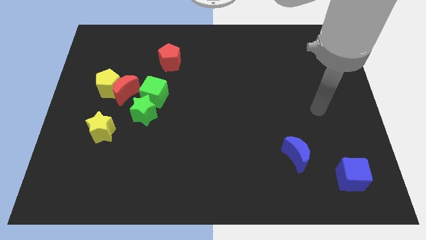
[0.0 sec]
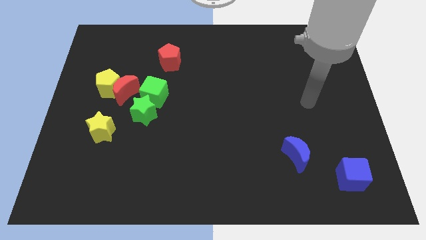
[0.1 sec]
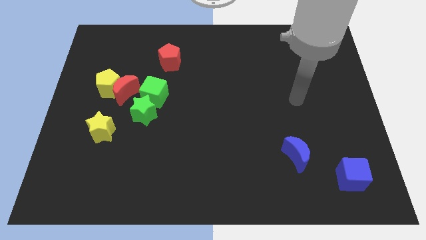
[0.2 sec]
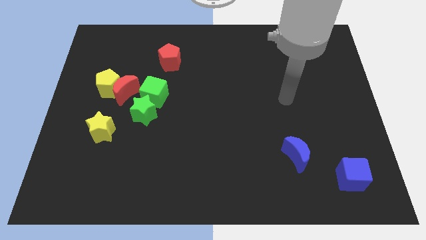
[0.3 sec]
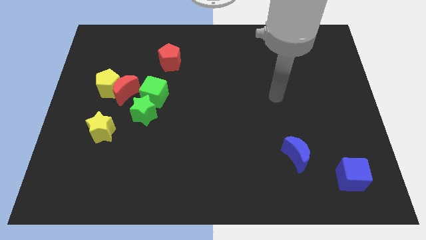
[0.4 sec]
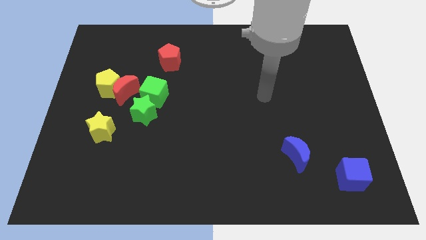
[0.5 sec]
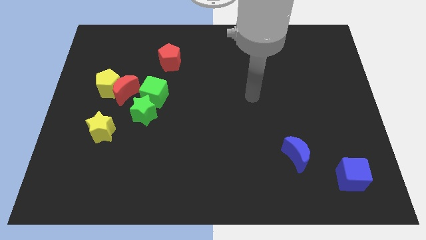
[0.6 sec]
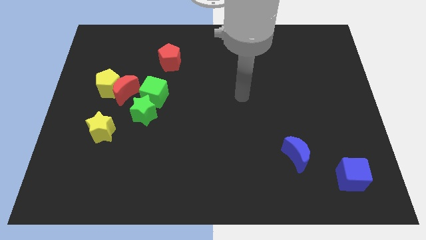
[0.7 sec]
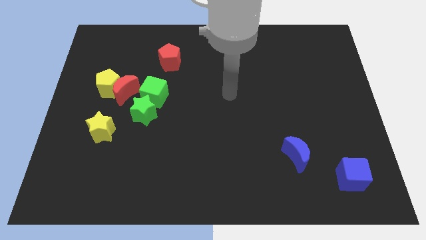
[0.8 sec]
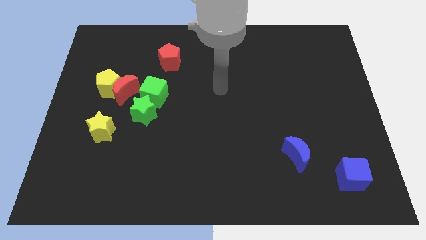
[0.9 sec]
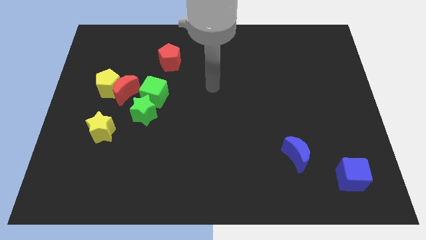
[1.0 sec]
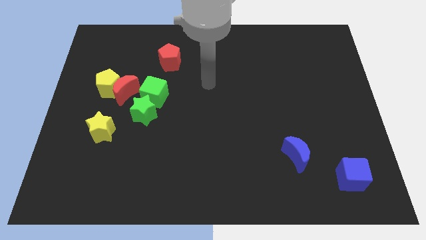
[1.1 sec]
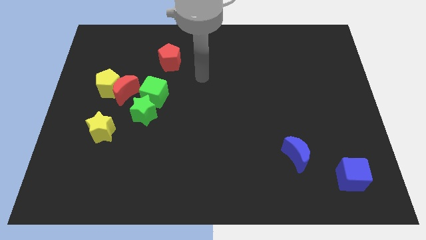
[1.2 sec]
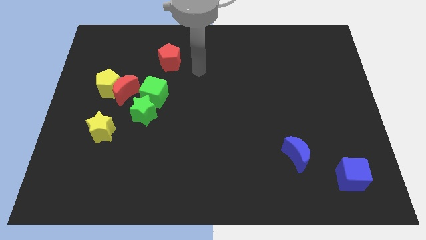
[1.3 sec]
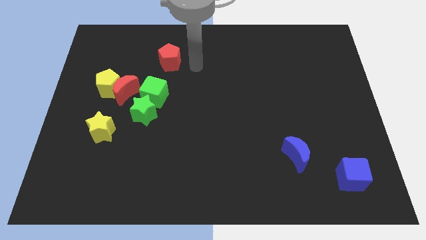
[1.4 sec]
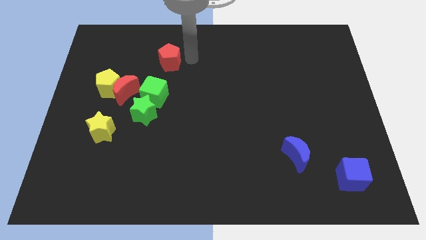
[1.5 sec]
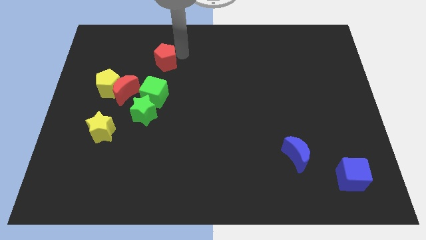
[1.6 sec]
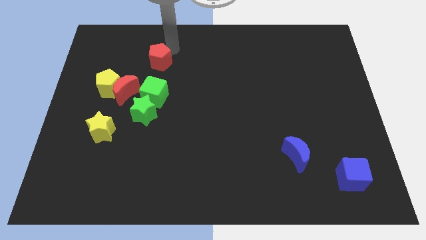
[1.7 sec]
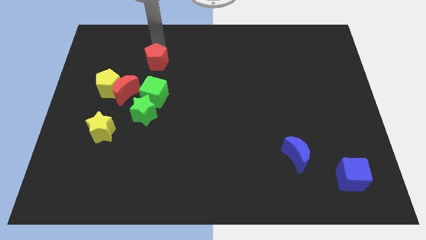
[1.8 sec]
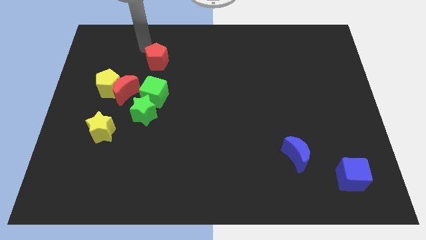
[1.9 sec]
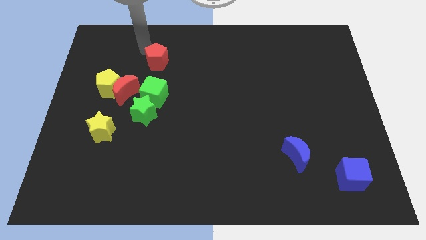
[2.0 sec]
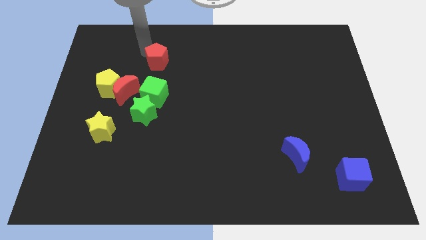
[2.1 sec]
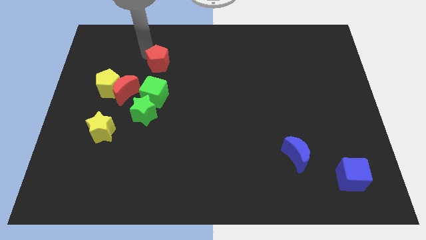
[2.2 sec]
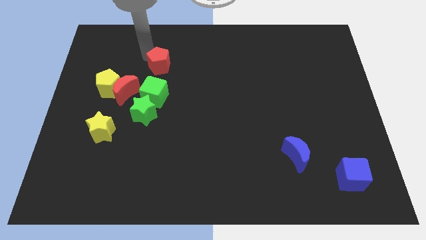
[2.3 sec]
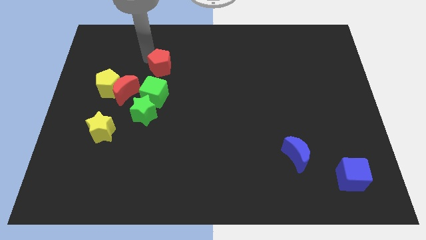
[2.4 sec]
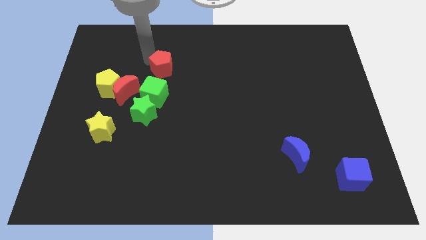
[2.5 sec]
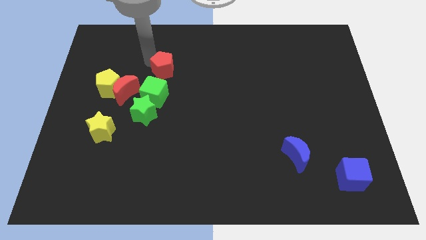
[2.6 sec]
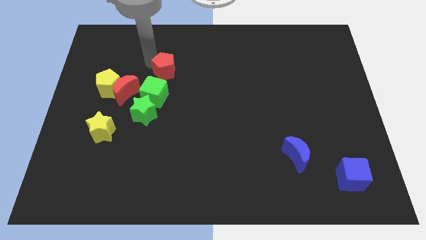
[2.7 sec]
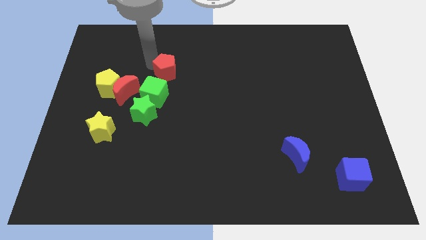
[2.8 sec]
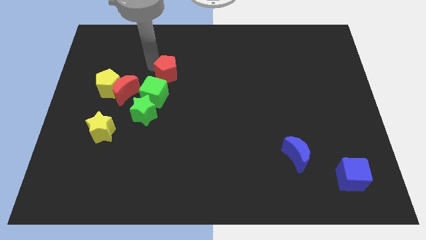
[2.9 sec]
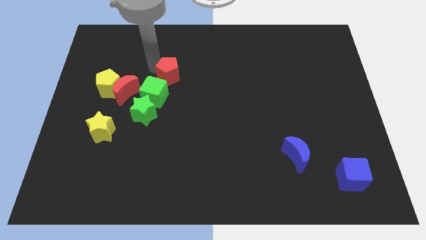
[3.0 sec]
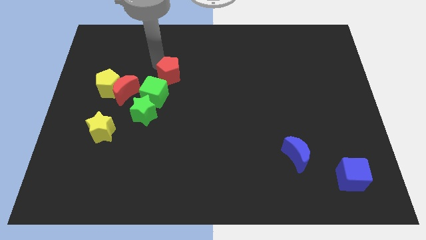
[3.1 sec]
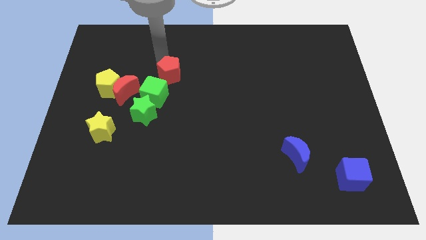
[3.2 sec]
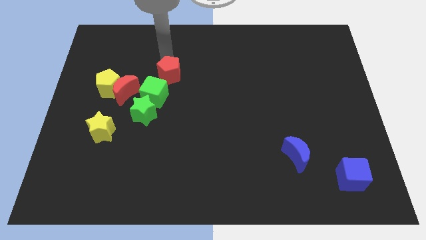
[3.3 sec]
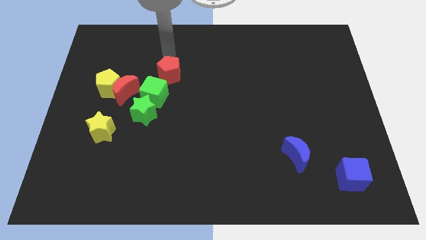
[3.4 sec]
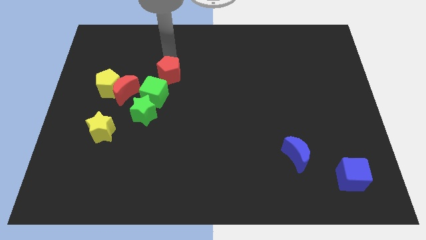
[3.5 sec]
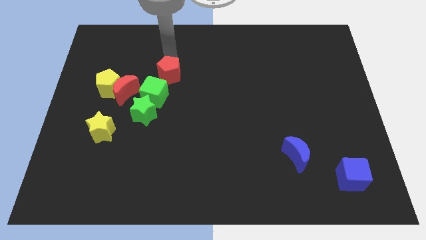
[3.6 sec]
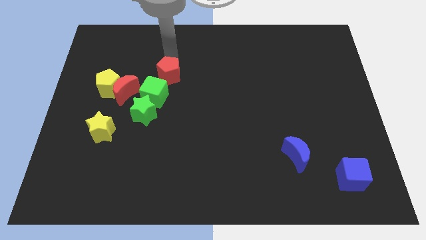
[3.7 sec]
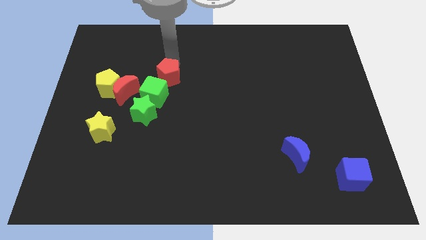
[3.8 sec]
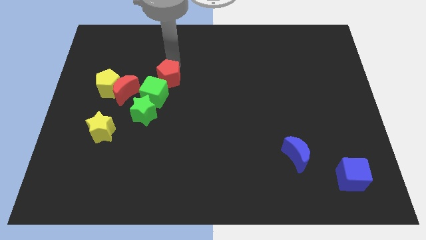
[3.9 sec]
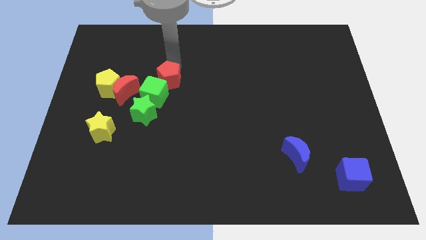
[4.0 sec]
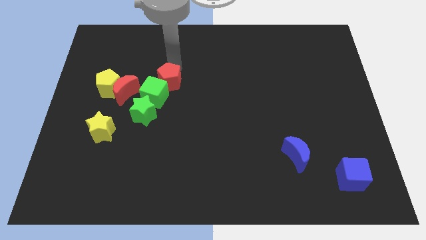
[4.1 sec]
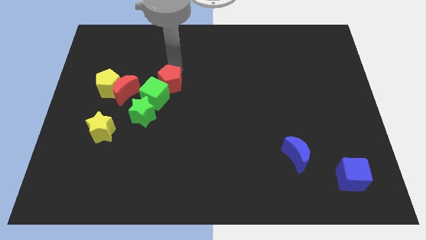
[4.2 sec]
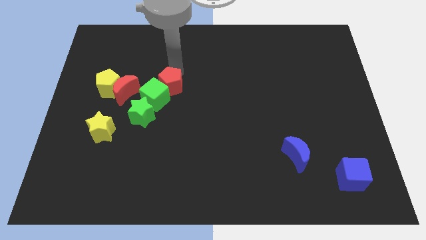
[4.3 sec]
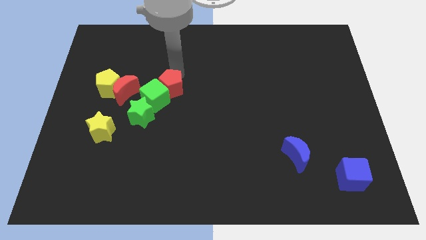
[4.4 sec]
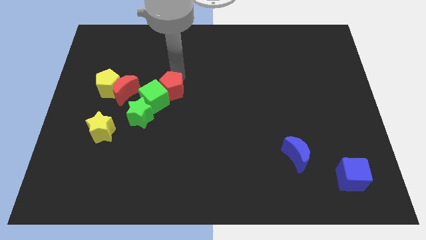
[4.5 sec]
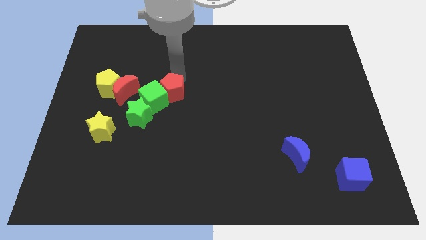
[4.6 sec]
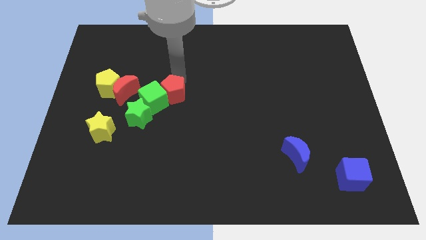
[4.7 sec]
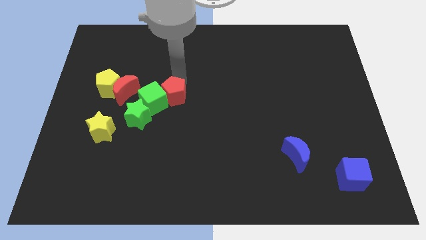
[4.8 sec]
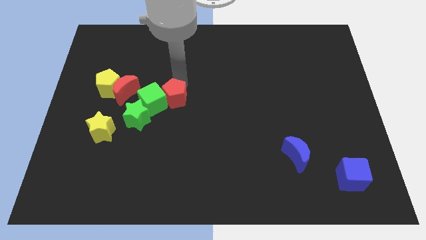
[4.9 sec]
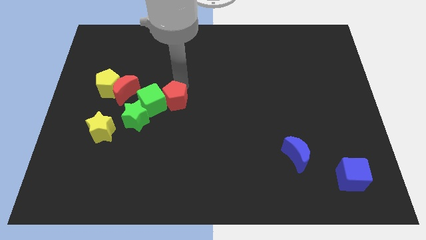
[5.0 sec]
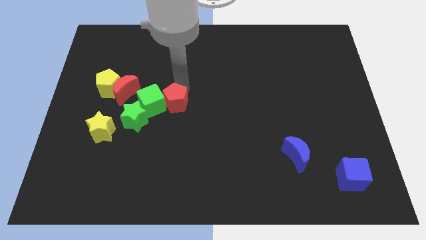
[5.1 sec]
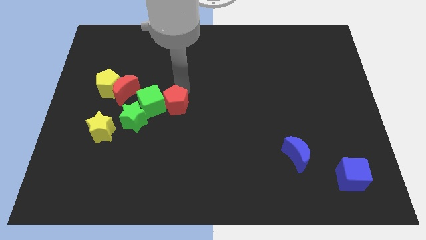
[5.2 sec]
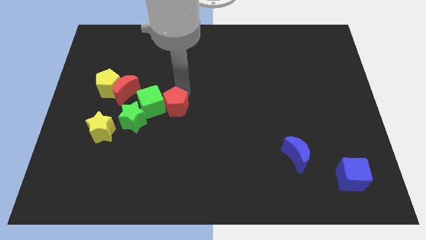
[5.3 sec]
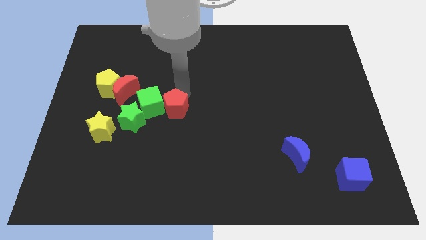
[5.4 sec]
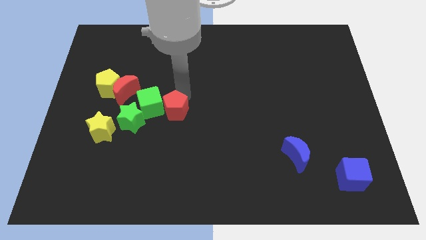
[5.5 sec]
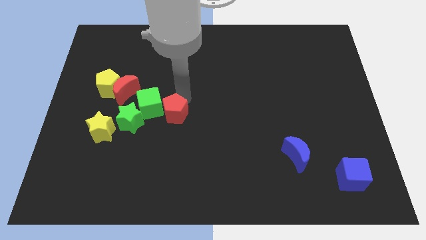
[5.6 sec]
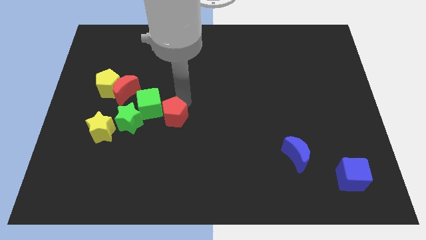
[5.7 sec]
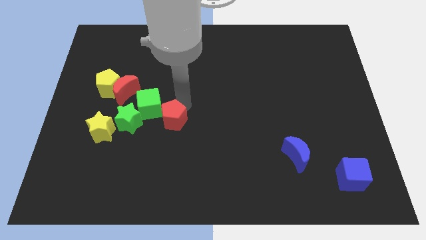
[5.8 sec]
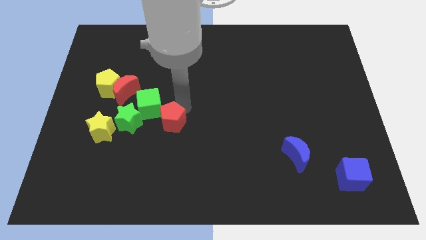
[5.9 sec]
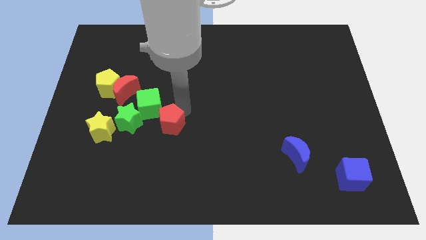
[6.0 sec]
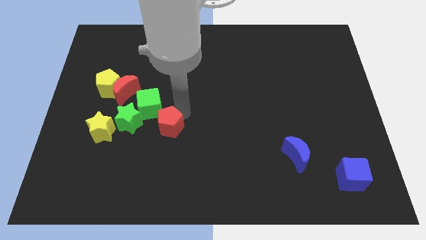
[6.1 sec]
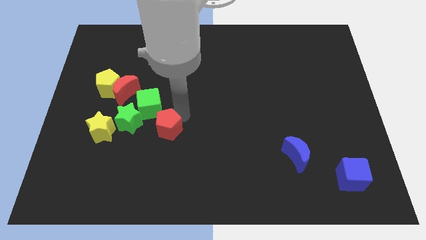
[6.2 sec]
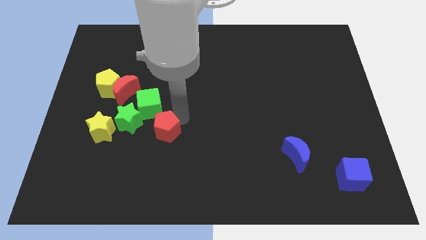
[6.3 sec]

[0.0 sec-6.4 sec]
put the red pentagon diagonally down and to the right of the green star

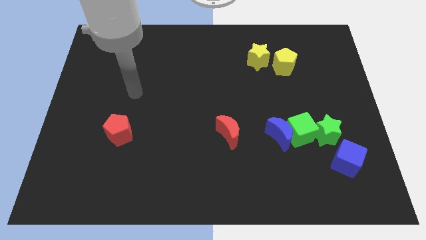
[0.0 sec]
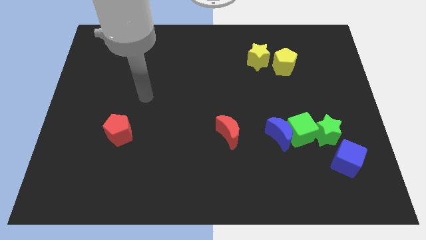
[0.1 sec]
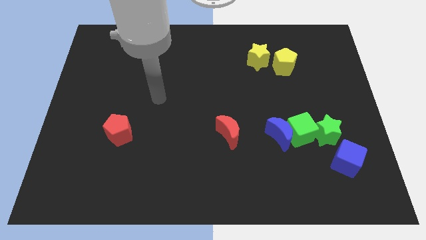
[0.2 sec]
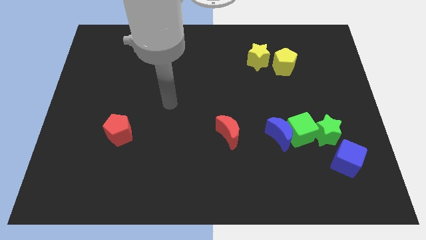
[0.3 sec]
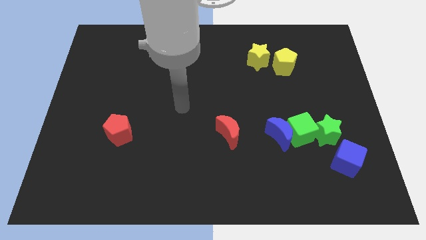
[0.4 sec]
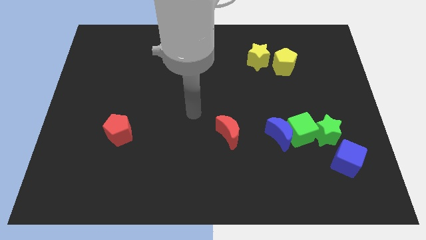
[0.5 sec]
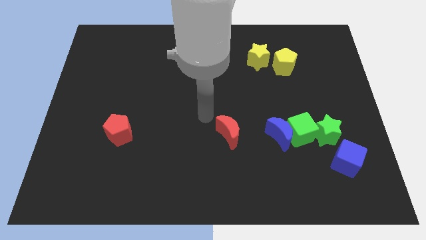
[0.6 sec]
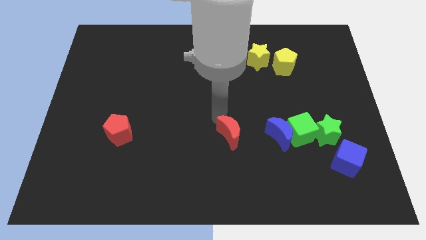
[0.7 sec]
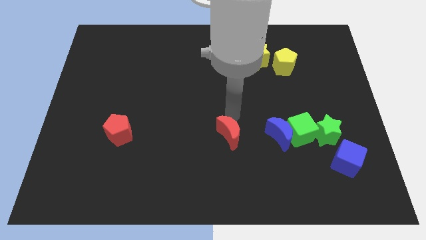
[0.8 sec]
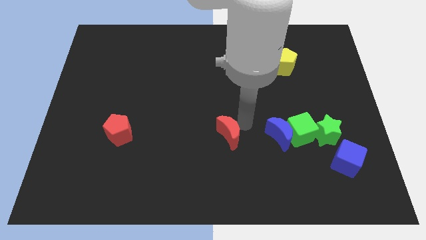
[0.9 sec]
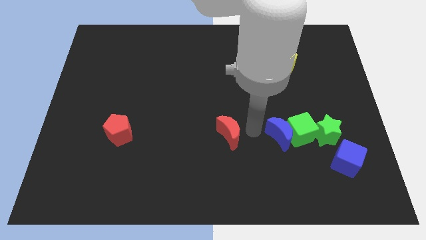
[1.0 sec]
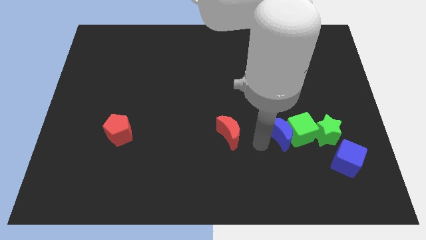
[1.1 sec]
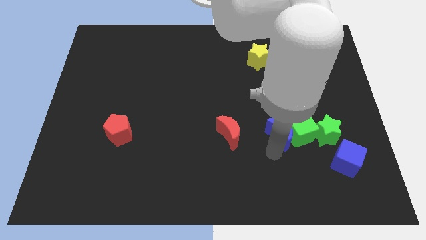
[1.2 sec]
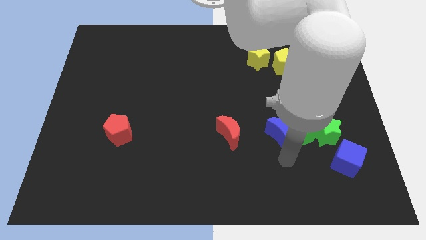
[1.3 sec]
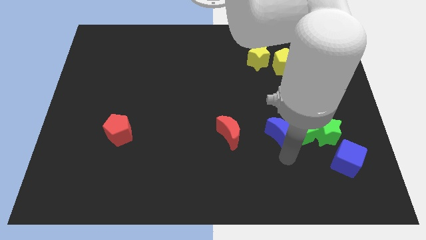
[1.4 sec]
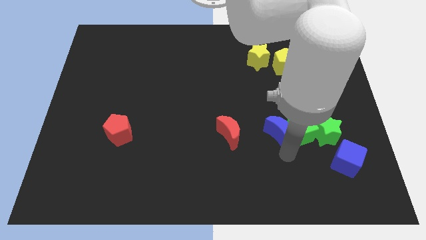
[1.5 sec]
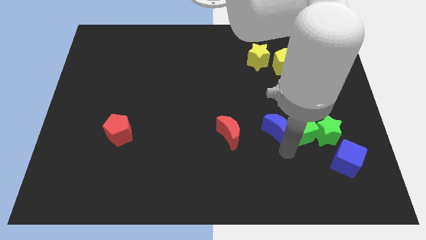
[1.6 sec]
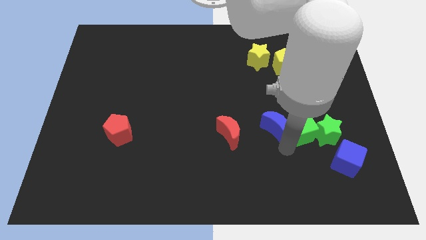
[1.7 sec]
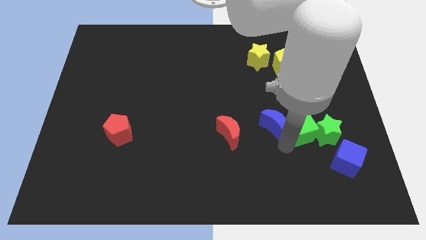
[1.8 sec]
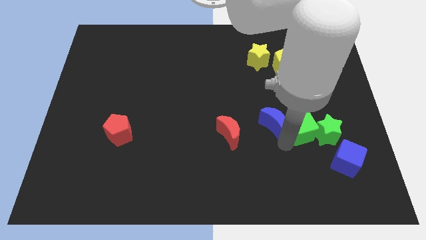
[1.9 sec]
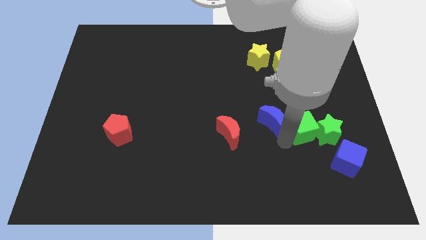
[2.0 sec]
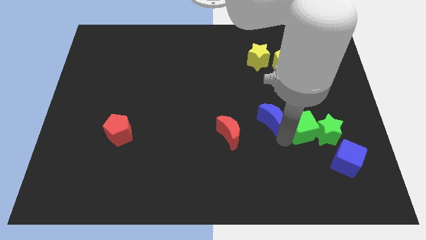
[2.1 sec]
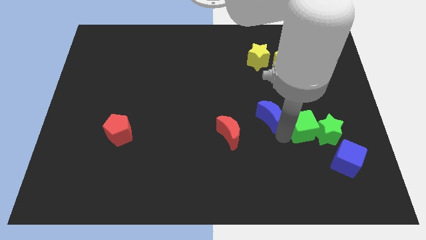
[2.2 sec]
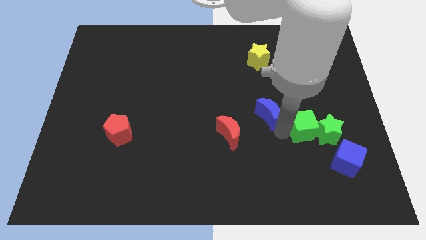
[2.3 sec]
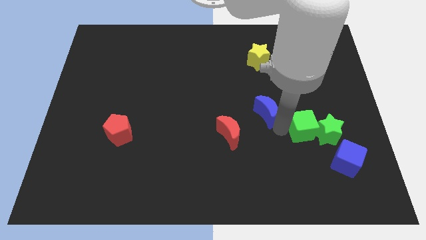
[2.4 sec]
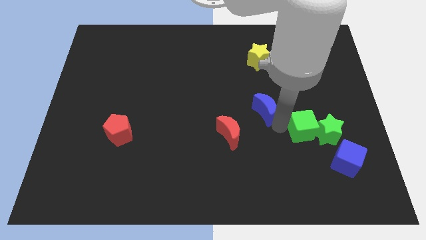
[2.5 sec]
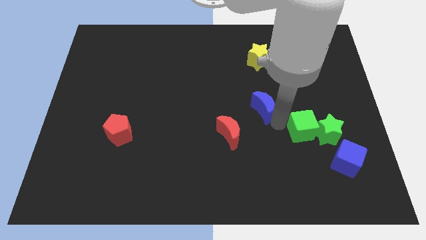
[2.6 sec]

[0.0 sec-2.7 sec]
push the blue moon below the yellow star
